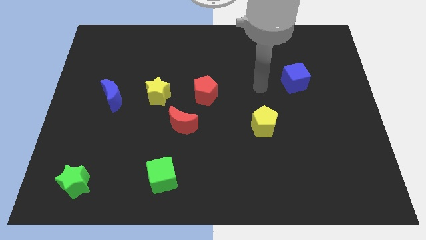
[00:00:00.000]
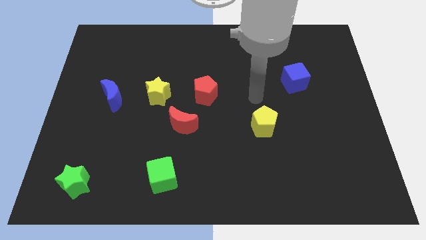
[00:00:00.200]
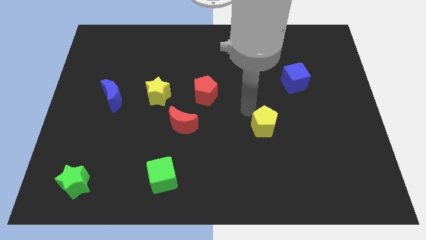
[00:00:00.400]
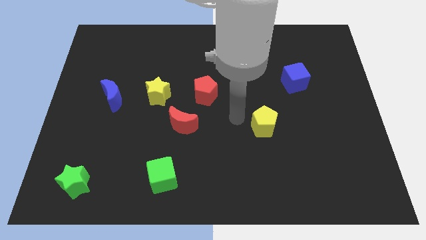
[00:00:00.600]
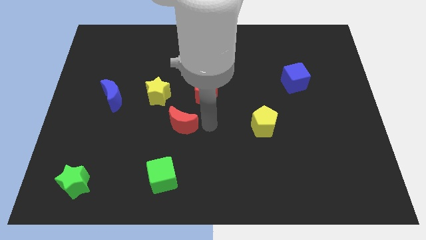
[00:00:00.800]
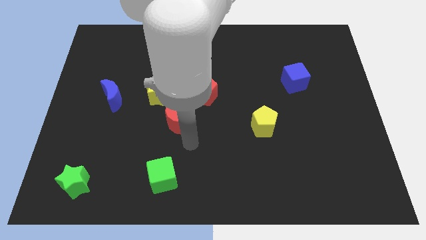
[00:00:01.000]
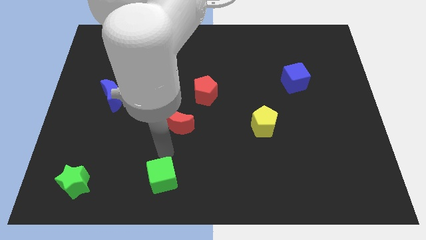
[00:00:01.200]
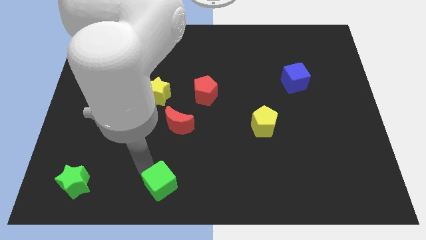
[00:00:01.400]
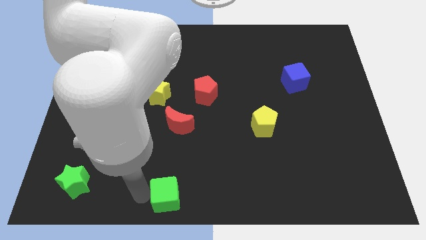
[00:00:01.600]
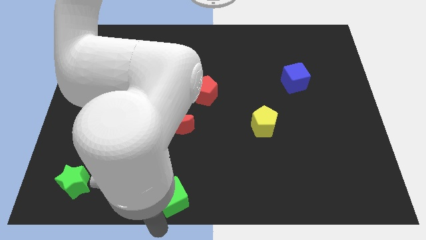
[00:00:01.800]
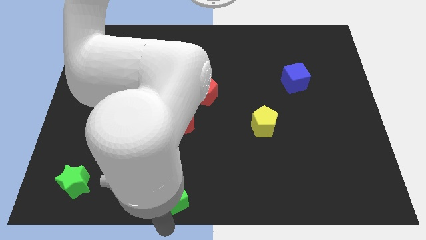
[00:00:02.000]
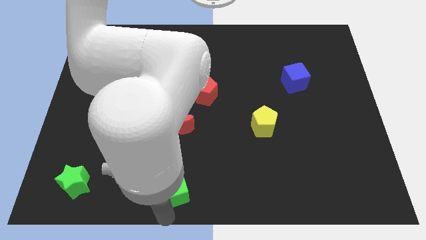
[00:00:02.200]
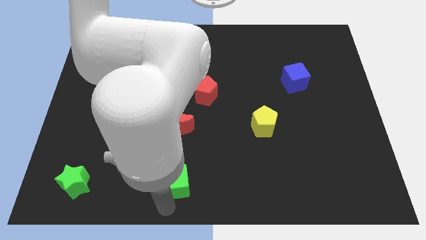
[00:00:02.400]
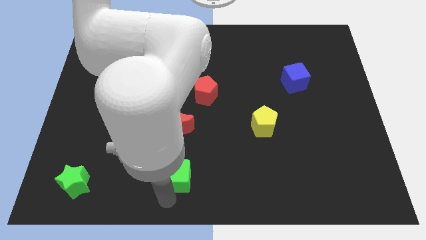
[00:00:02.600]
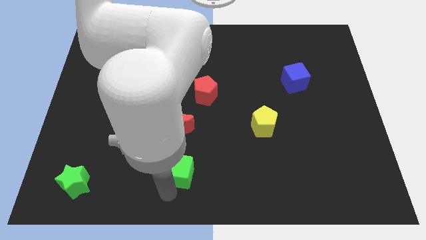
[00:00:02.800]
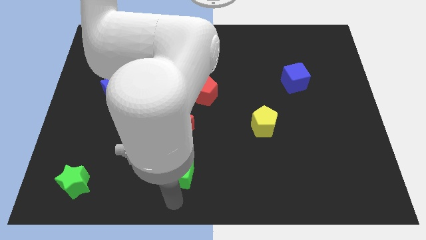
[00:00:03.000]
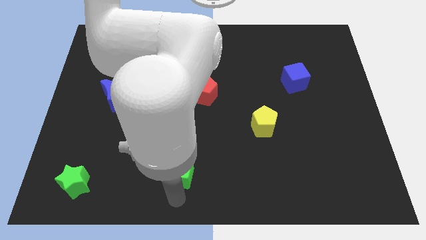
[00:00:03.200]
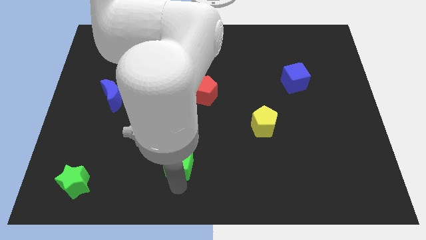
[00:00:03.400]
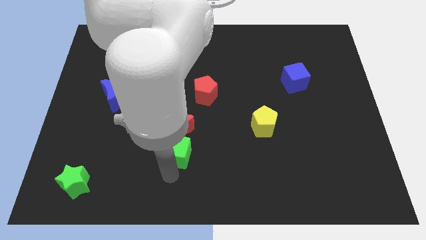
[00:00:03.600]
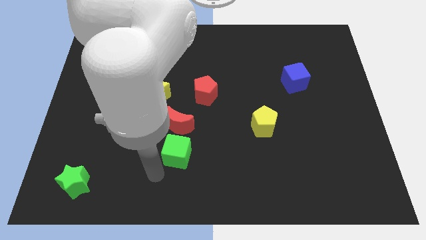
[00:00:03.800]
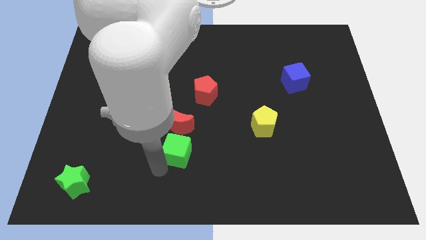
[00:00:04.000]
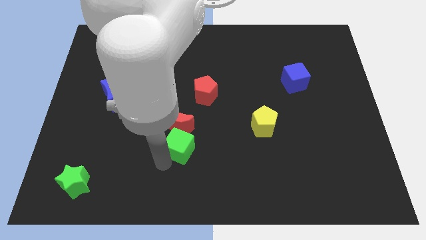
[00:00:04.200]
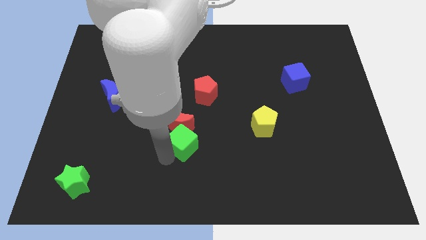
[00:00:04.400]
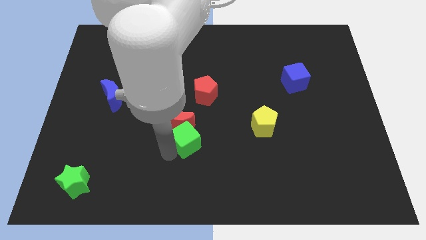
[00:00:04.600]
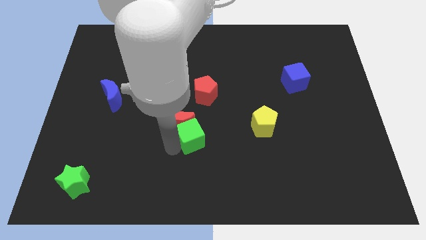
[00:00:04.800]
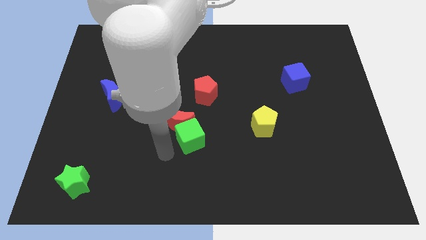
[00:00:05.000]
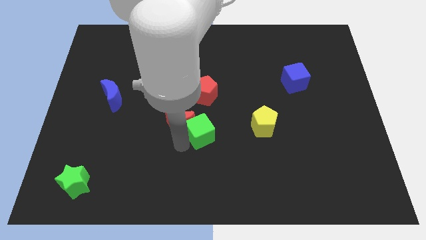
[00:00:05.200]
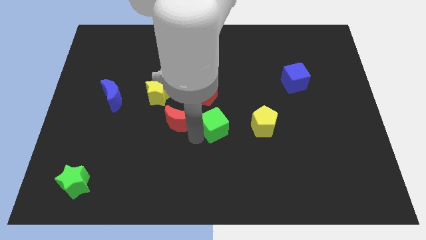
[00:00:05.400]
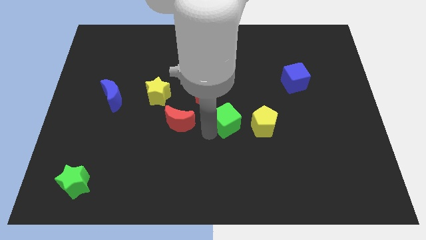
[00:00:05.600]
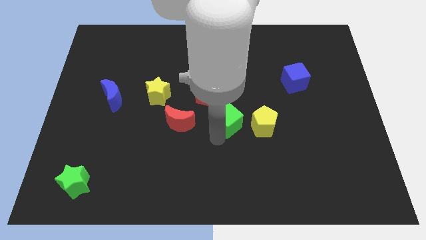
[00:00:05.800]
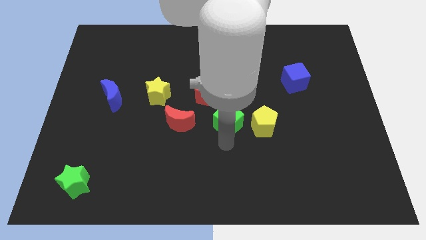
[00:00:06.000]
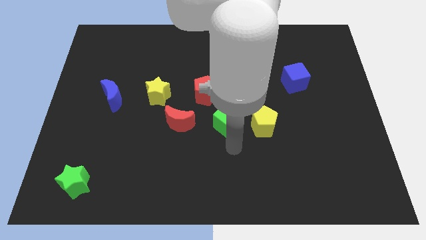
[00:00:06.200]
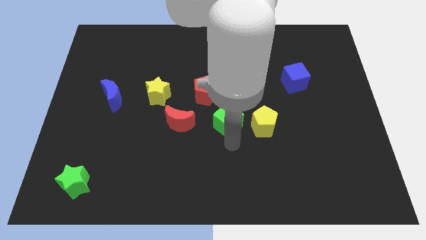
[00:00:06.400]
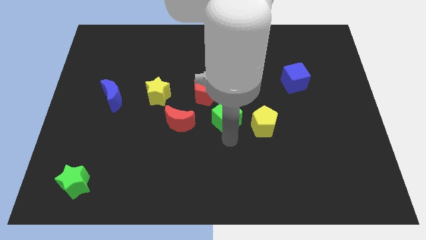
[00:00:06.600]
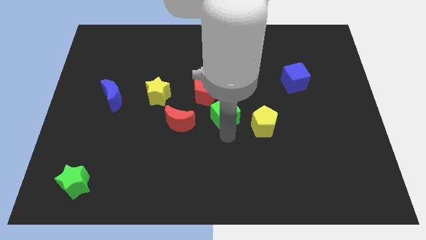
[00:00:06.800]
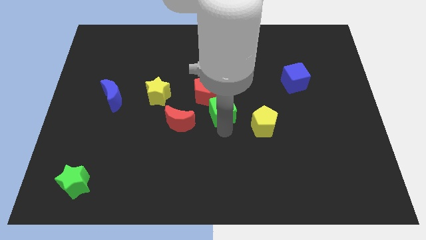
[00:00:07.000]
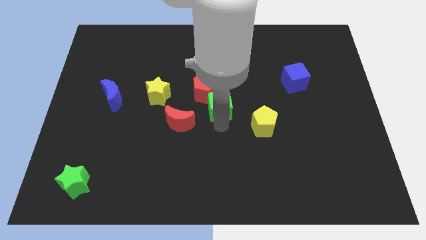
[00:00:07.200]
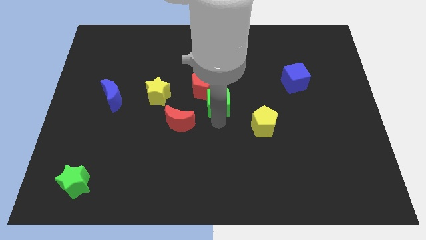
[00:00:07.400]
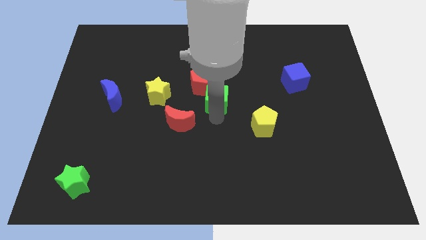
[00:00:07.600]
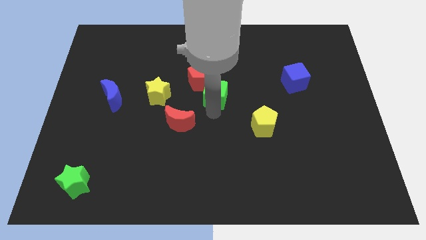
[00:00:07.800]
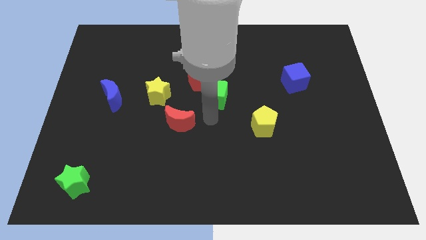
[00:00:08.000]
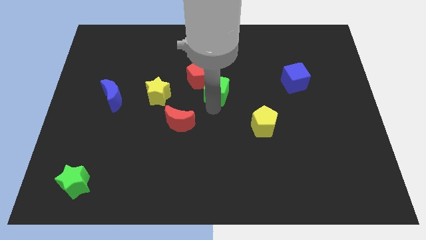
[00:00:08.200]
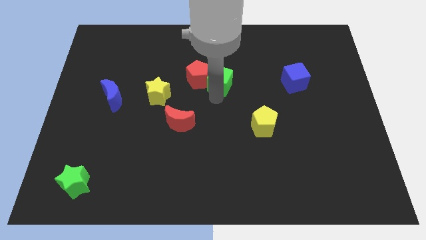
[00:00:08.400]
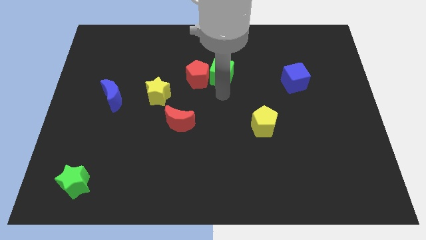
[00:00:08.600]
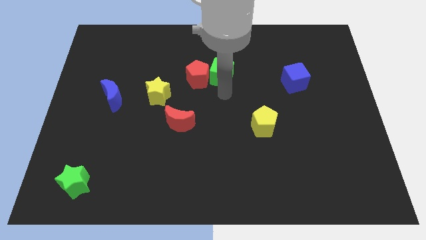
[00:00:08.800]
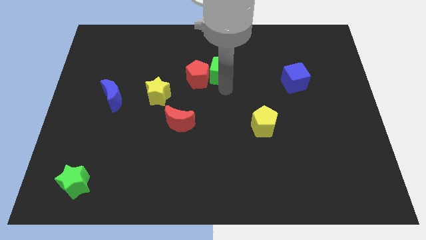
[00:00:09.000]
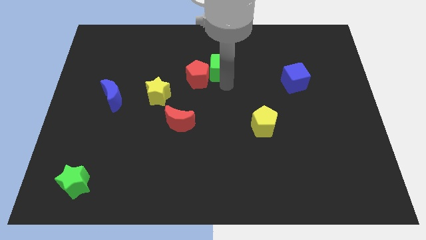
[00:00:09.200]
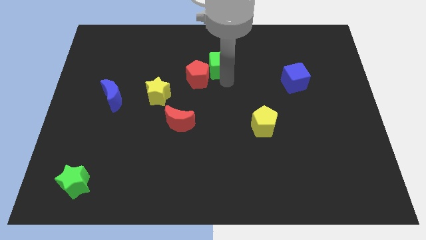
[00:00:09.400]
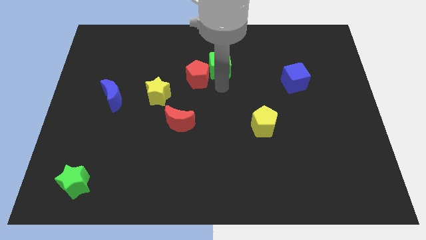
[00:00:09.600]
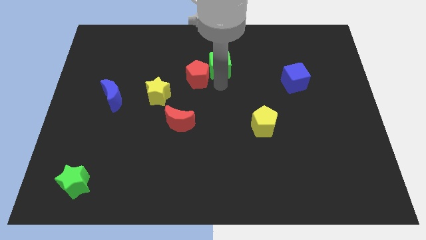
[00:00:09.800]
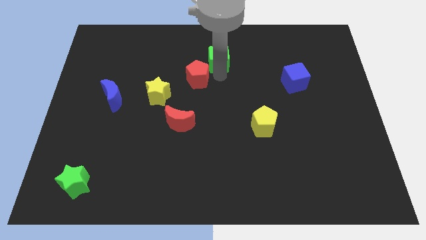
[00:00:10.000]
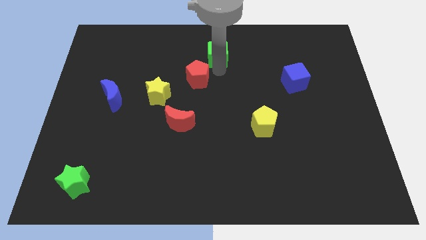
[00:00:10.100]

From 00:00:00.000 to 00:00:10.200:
move the green cube to the top

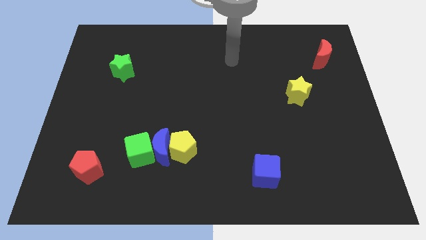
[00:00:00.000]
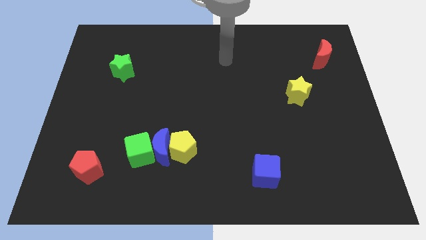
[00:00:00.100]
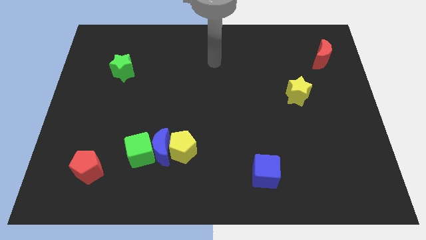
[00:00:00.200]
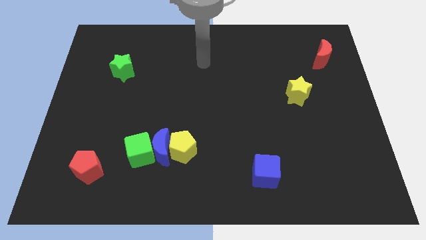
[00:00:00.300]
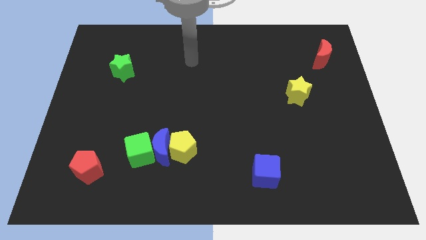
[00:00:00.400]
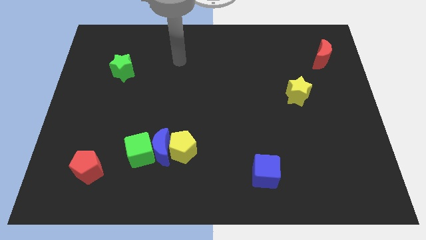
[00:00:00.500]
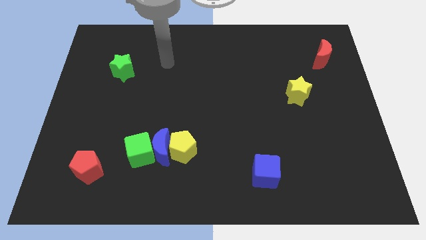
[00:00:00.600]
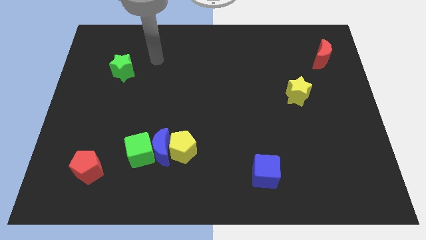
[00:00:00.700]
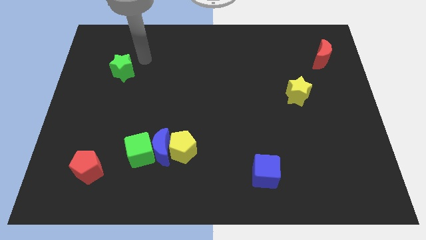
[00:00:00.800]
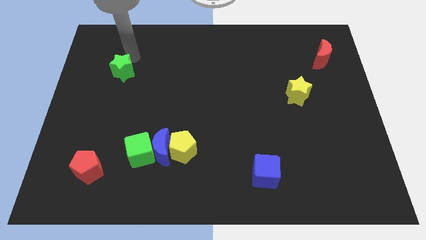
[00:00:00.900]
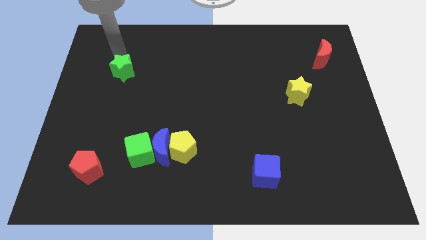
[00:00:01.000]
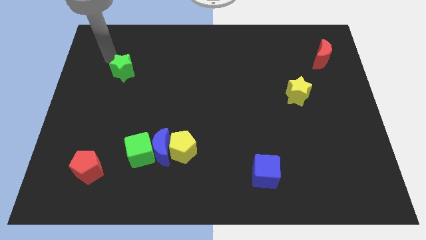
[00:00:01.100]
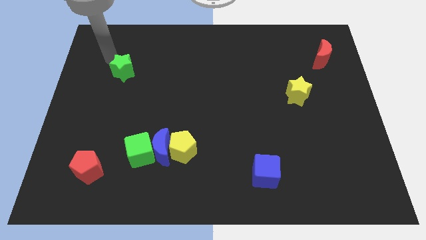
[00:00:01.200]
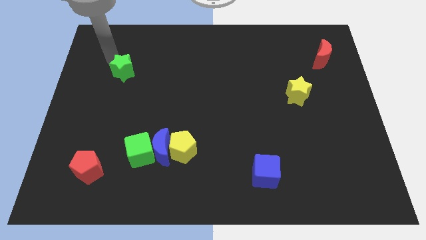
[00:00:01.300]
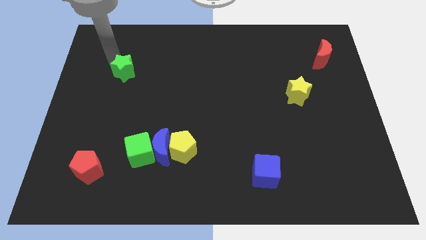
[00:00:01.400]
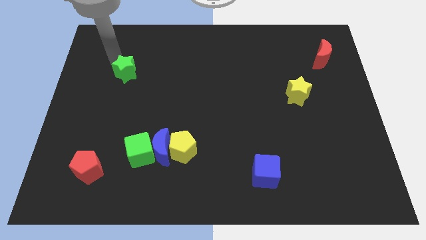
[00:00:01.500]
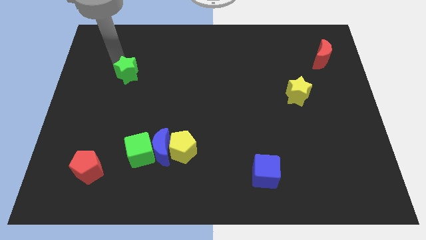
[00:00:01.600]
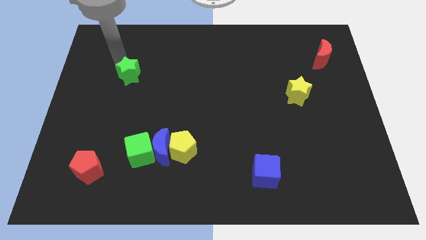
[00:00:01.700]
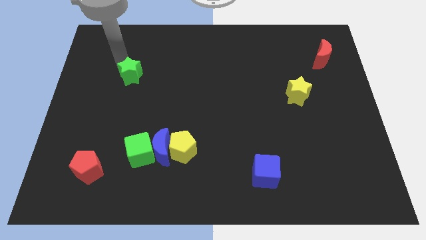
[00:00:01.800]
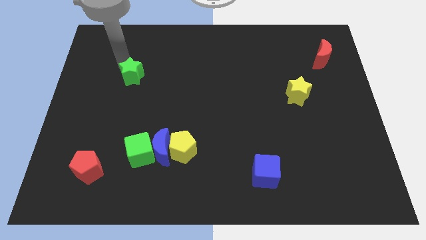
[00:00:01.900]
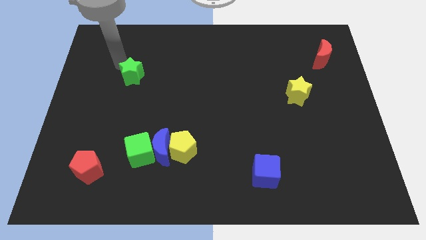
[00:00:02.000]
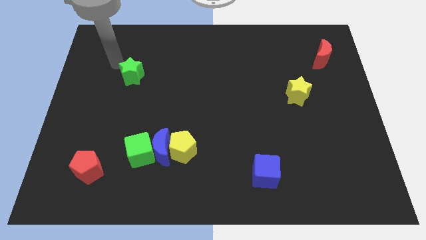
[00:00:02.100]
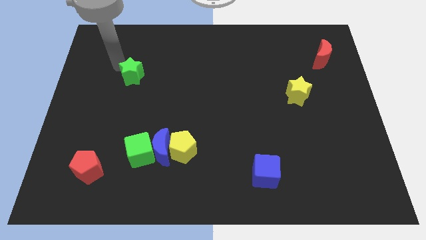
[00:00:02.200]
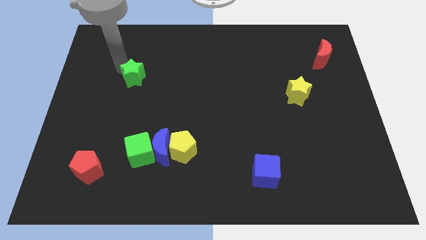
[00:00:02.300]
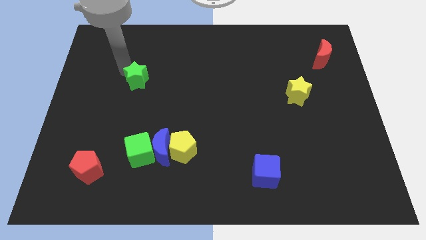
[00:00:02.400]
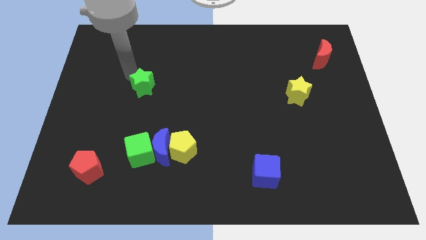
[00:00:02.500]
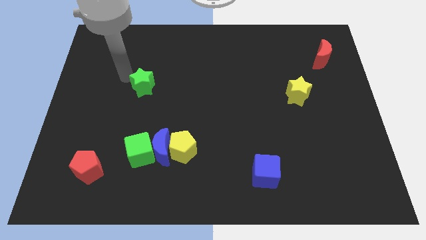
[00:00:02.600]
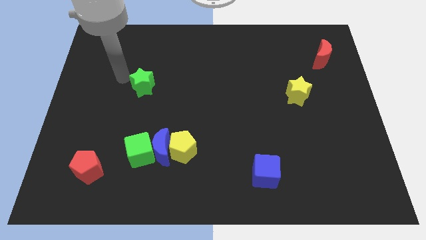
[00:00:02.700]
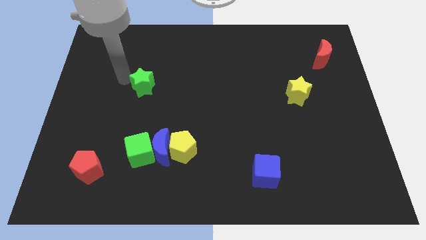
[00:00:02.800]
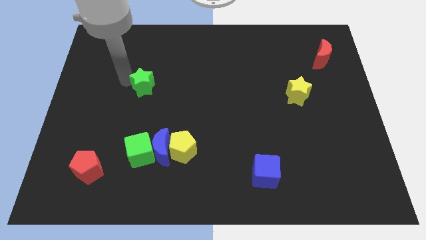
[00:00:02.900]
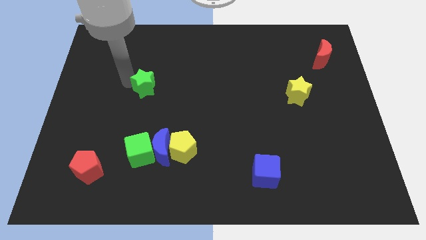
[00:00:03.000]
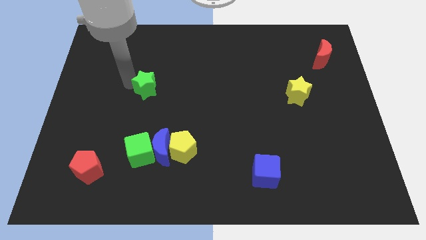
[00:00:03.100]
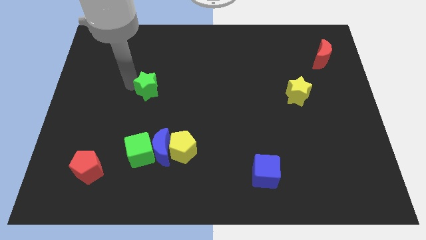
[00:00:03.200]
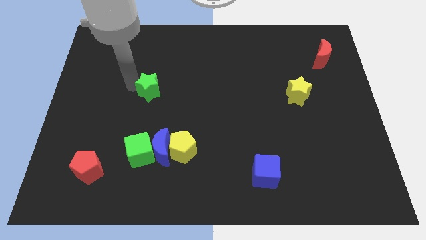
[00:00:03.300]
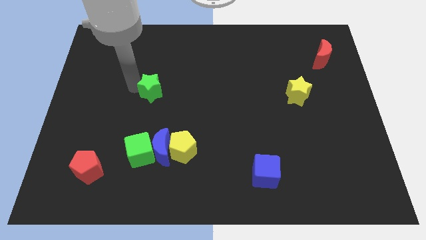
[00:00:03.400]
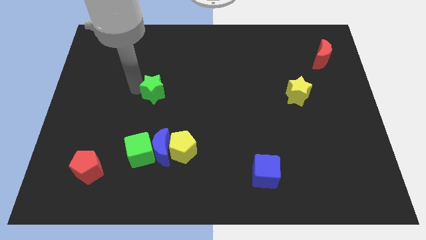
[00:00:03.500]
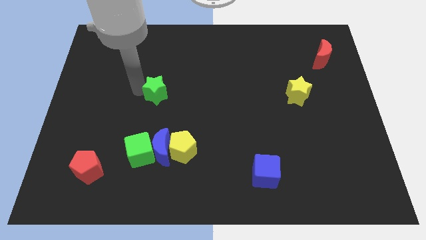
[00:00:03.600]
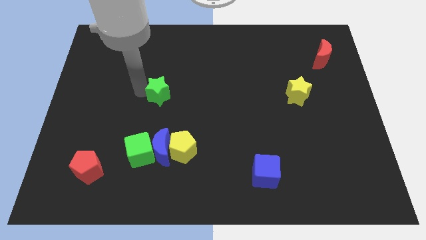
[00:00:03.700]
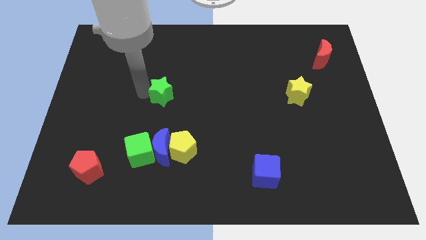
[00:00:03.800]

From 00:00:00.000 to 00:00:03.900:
push the green star to the middle of the board
